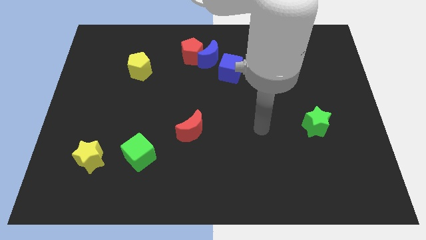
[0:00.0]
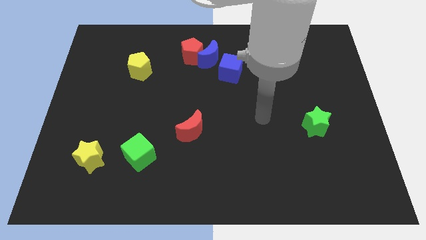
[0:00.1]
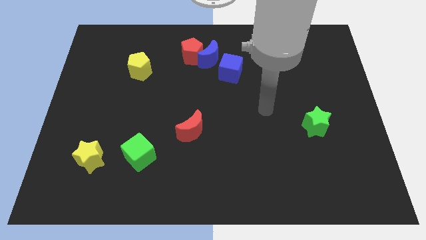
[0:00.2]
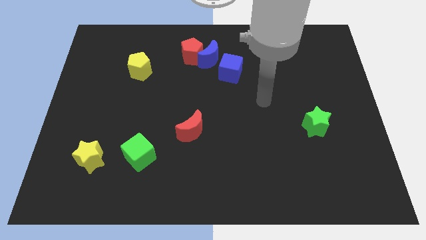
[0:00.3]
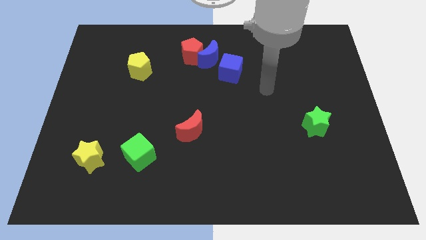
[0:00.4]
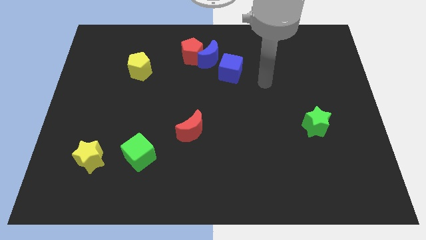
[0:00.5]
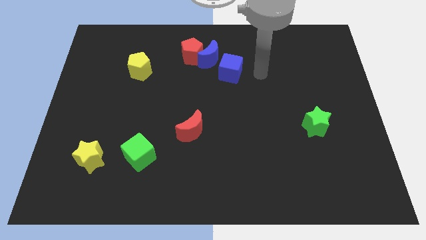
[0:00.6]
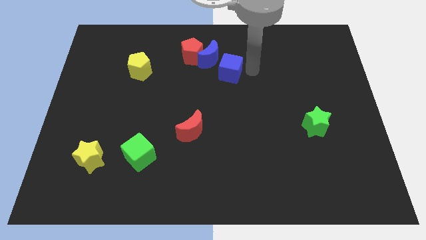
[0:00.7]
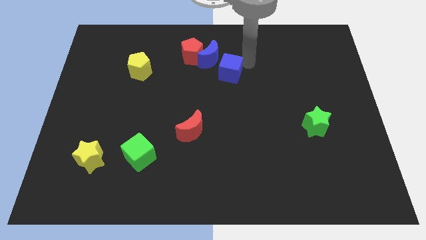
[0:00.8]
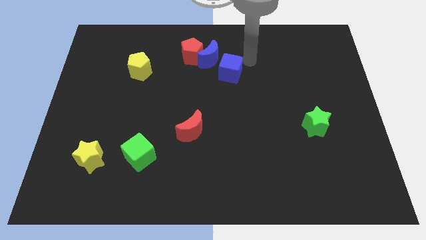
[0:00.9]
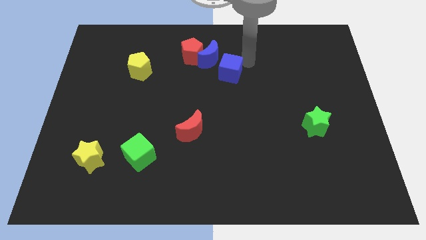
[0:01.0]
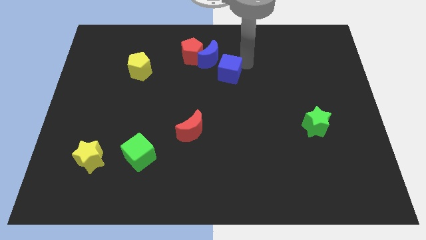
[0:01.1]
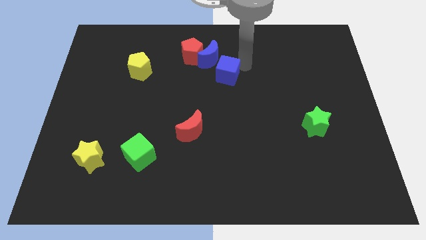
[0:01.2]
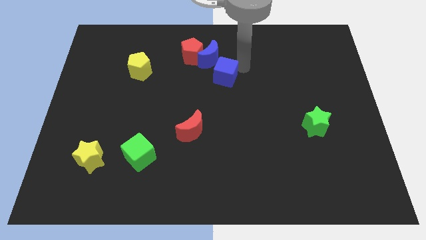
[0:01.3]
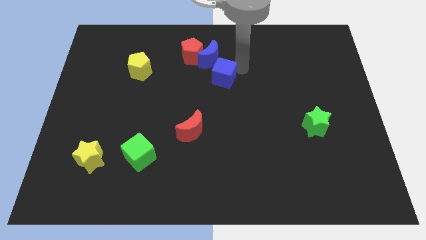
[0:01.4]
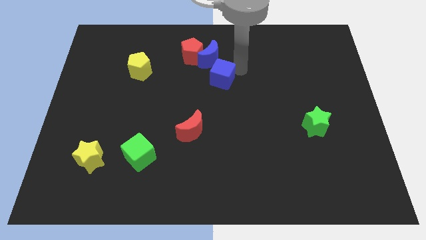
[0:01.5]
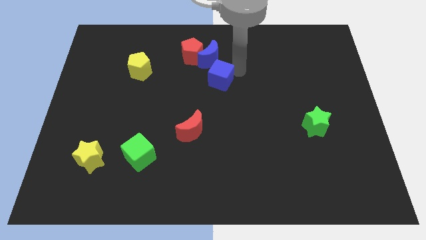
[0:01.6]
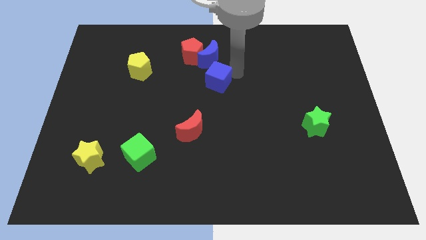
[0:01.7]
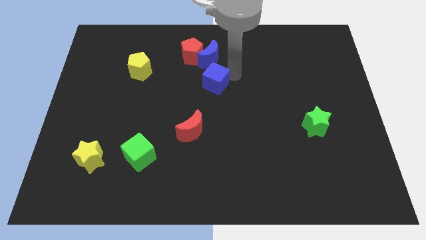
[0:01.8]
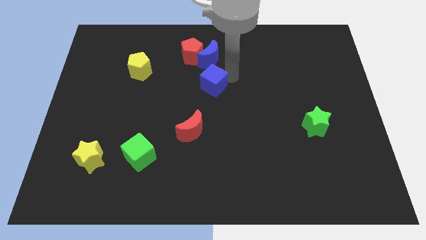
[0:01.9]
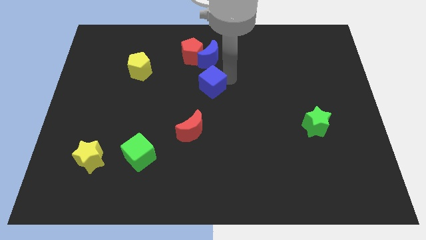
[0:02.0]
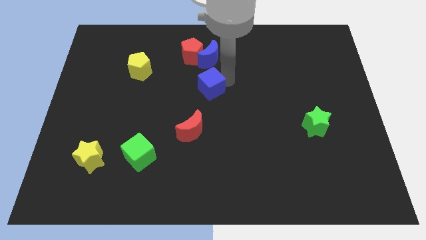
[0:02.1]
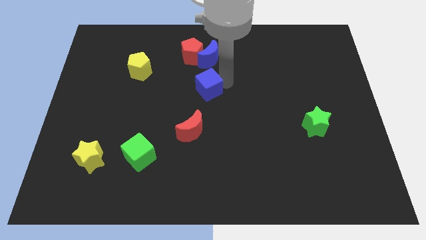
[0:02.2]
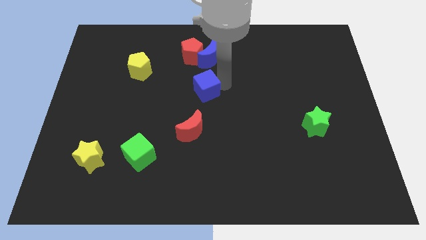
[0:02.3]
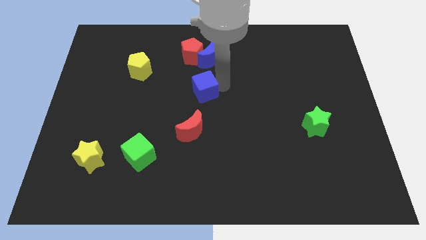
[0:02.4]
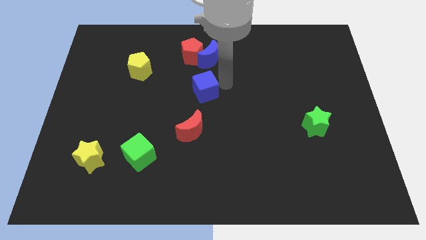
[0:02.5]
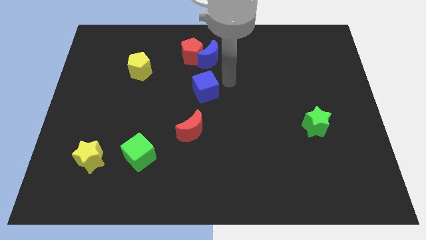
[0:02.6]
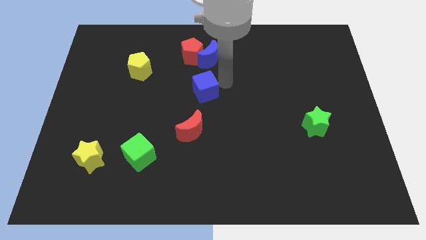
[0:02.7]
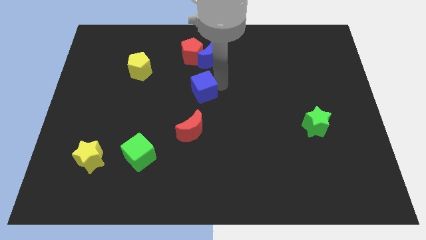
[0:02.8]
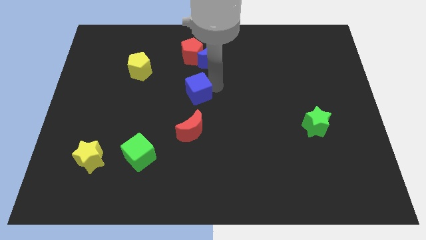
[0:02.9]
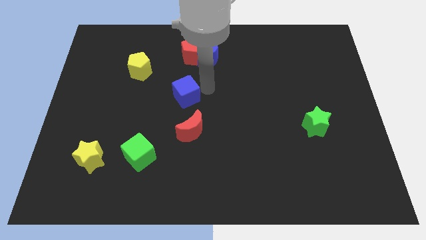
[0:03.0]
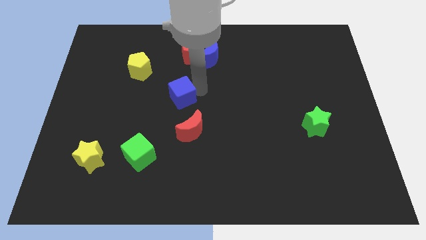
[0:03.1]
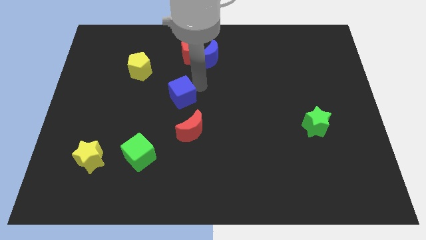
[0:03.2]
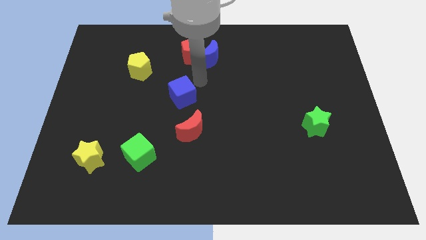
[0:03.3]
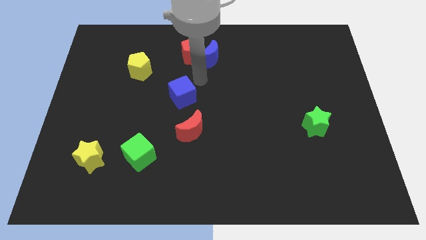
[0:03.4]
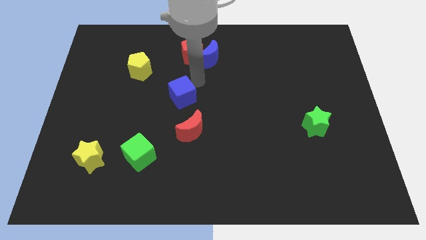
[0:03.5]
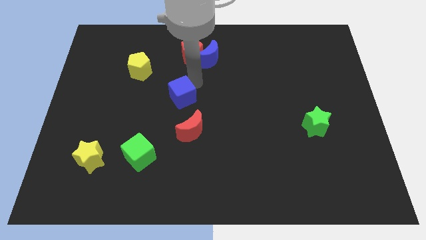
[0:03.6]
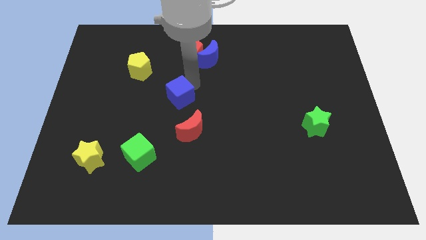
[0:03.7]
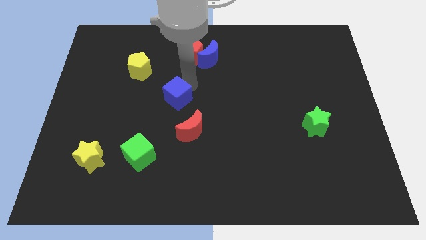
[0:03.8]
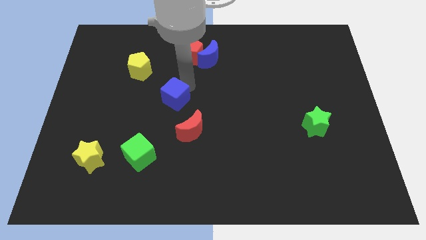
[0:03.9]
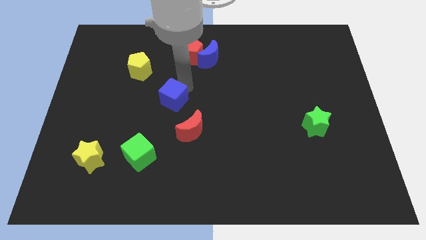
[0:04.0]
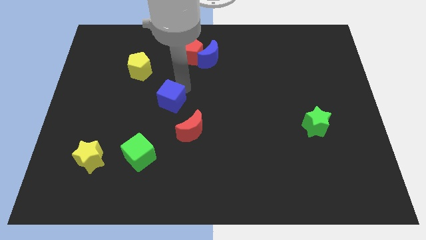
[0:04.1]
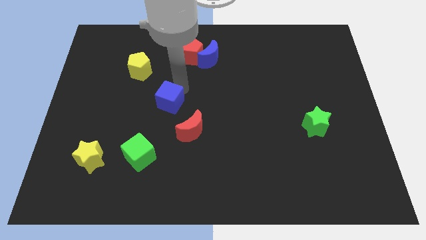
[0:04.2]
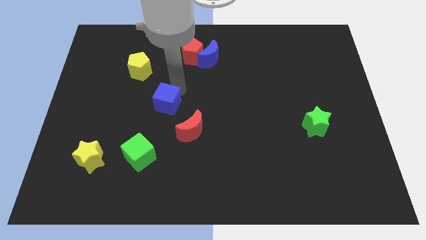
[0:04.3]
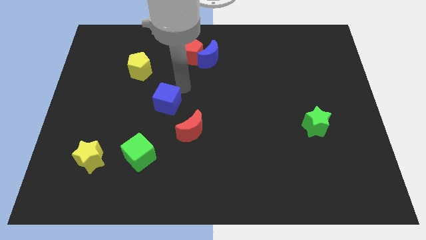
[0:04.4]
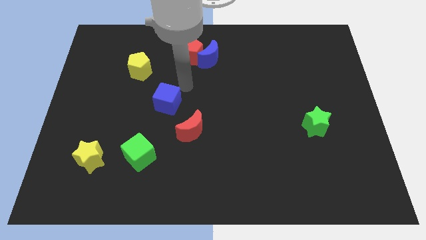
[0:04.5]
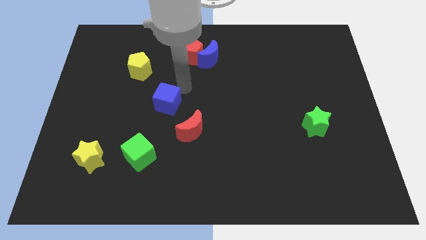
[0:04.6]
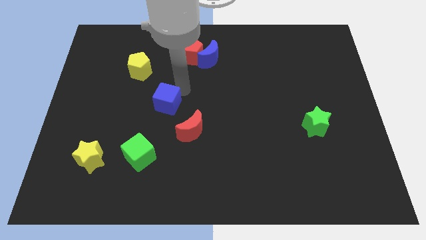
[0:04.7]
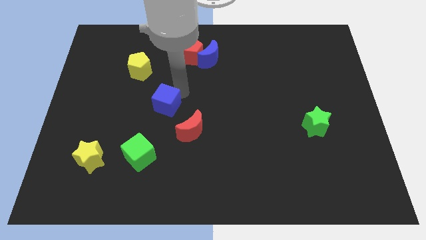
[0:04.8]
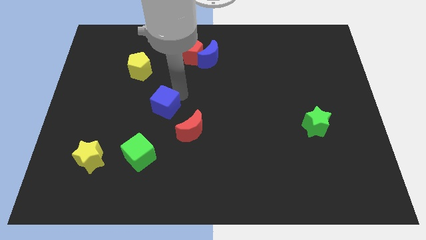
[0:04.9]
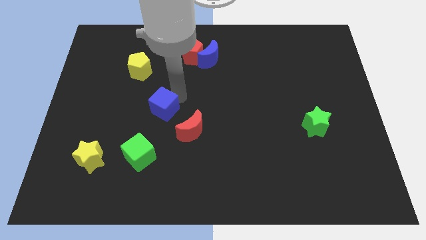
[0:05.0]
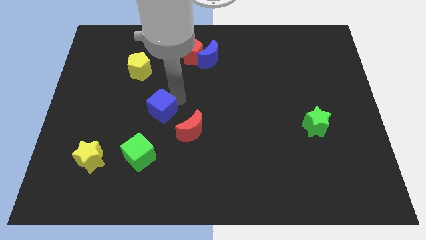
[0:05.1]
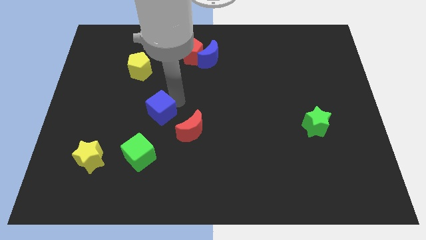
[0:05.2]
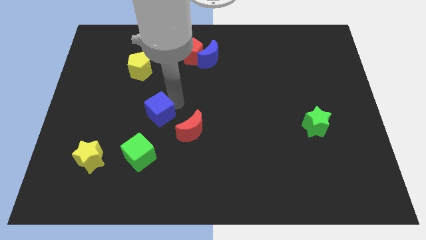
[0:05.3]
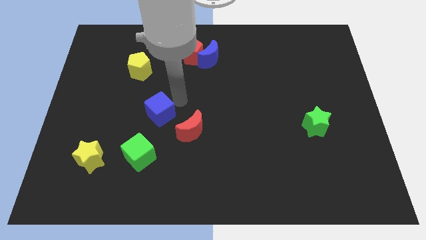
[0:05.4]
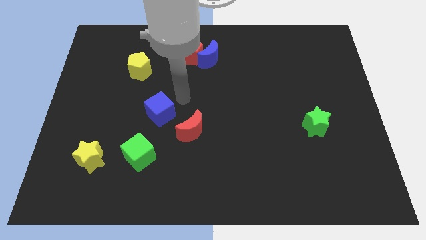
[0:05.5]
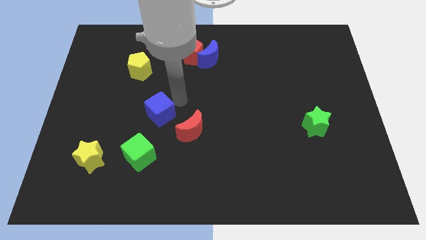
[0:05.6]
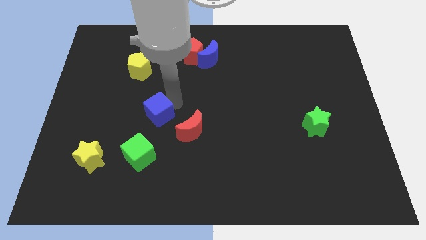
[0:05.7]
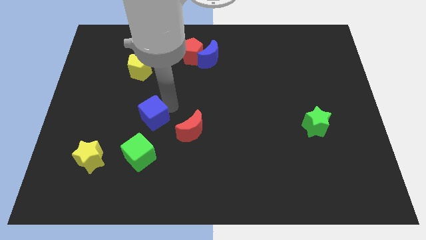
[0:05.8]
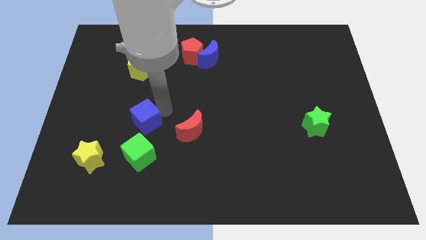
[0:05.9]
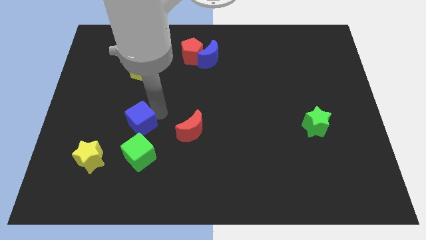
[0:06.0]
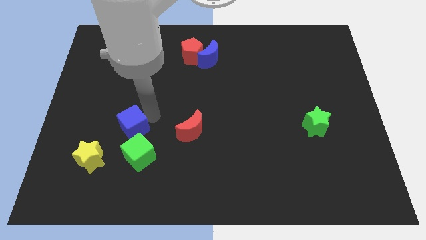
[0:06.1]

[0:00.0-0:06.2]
push the blue cube to the top right of the yellow star

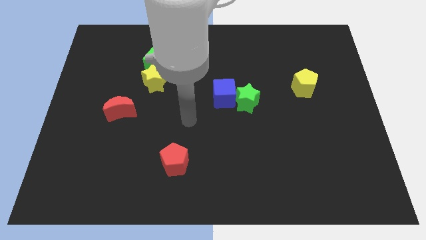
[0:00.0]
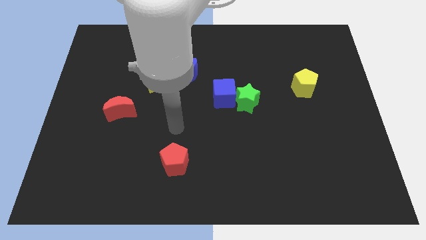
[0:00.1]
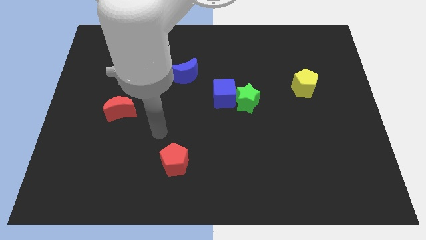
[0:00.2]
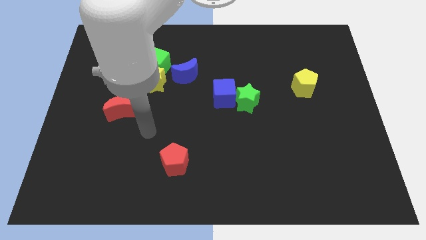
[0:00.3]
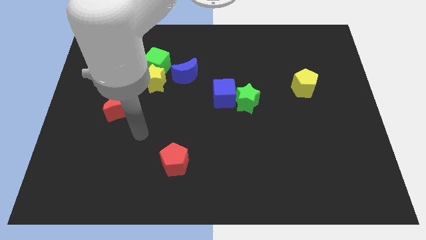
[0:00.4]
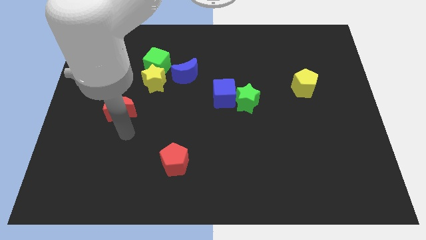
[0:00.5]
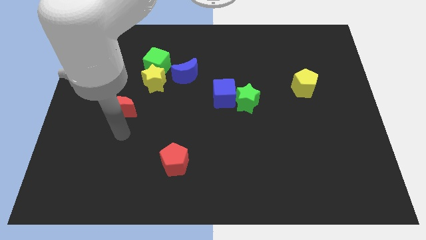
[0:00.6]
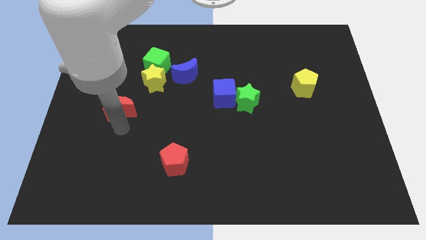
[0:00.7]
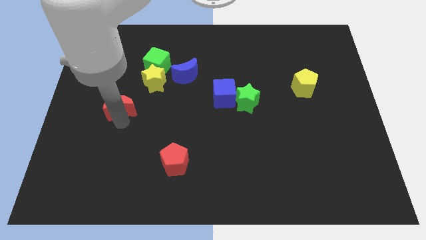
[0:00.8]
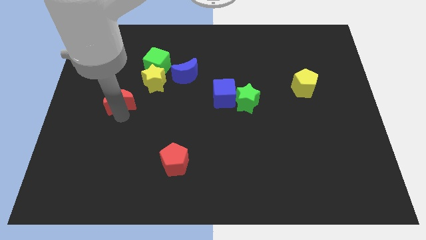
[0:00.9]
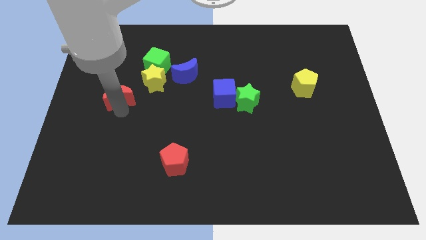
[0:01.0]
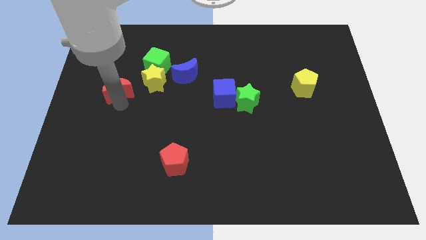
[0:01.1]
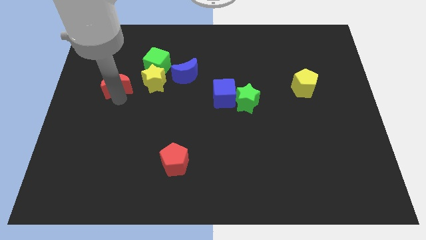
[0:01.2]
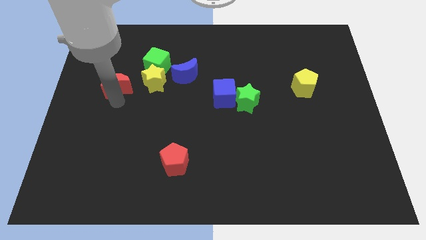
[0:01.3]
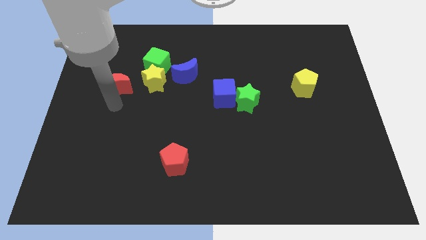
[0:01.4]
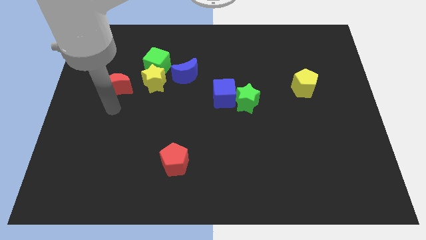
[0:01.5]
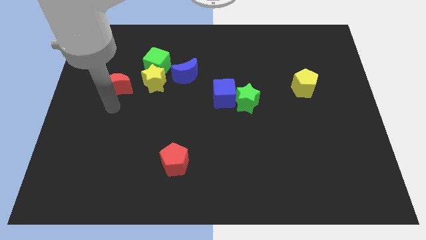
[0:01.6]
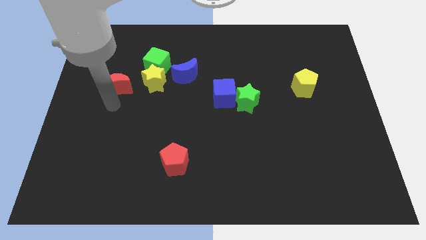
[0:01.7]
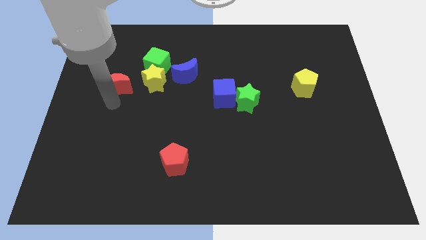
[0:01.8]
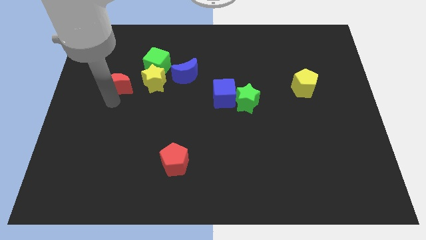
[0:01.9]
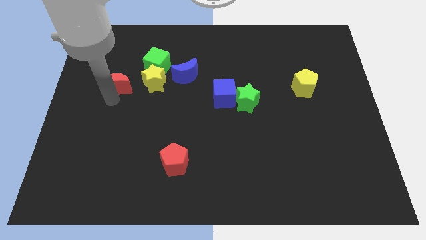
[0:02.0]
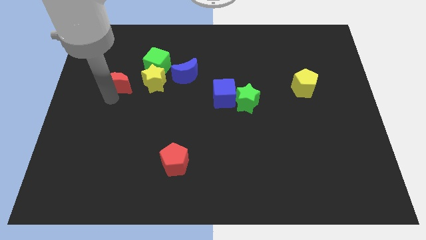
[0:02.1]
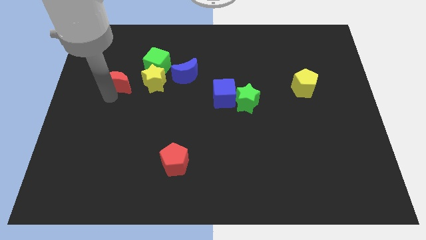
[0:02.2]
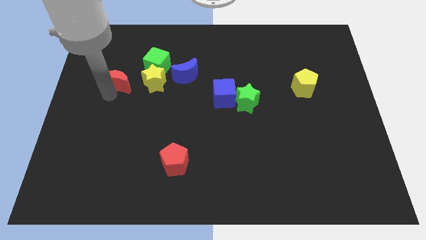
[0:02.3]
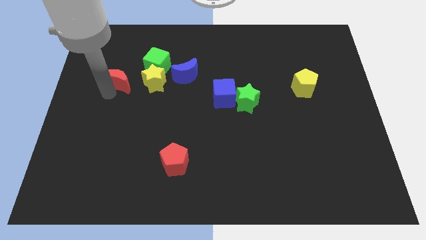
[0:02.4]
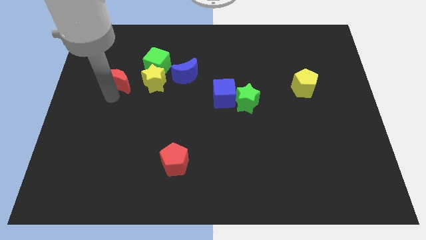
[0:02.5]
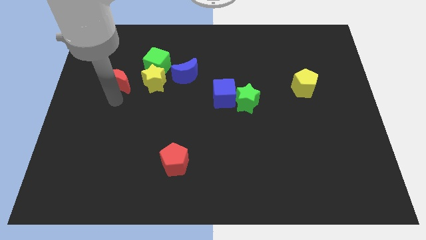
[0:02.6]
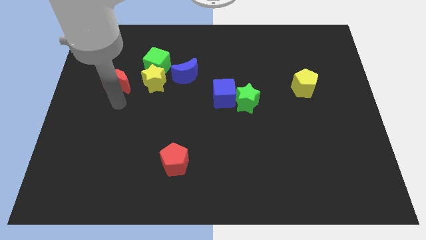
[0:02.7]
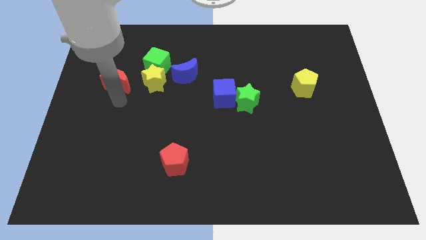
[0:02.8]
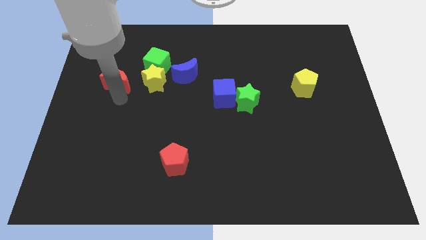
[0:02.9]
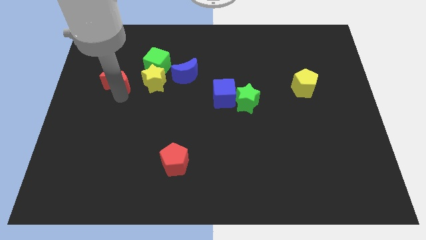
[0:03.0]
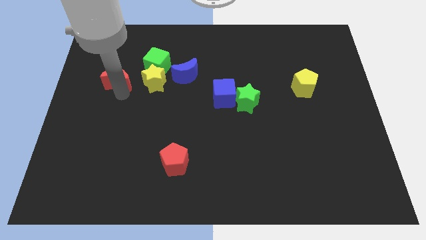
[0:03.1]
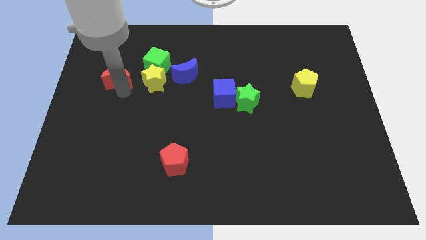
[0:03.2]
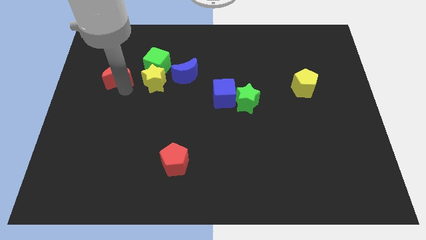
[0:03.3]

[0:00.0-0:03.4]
move the red moon to the left side of the green cube
